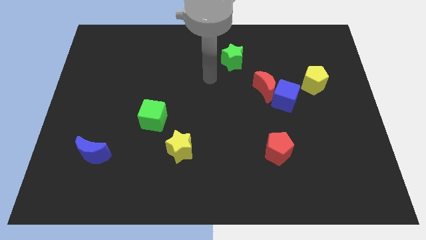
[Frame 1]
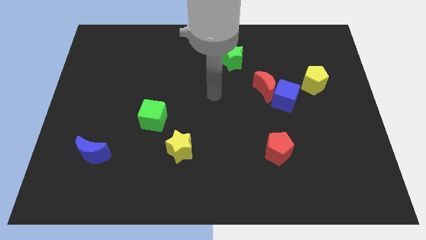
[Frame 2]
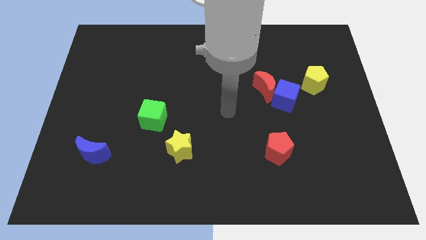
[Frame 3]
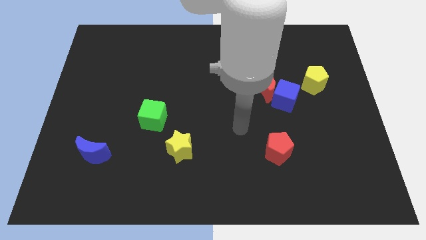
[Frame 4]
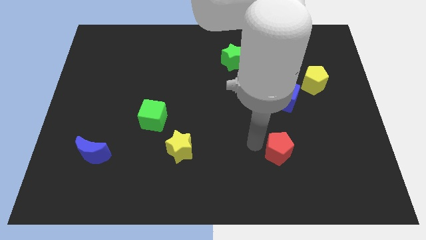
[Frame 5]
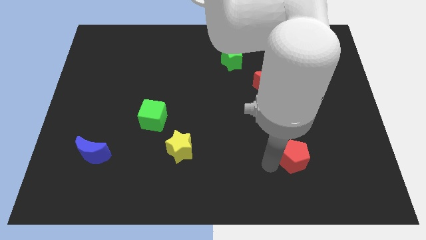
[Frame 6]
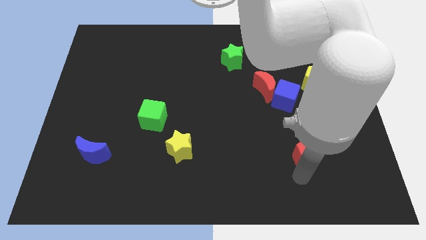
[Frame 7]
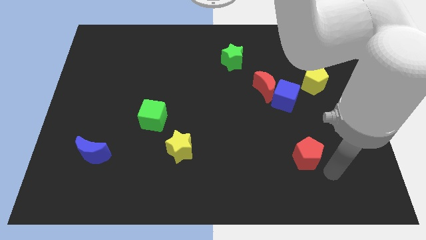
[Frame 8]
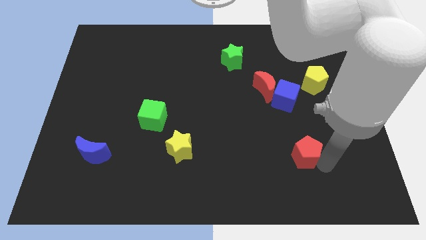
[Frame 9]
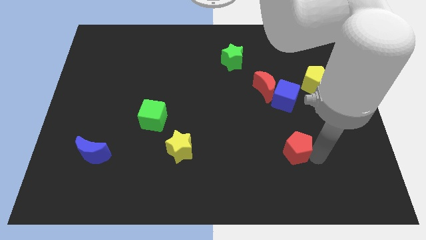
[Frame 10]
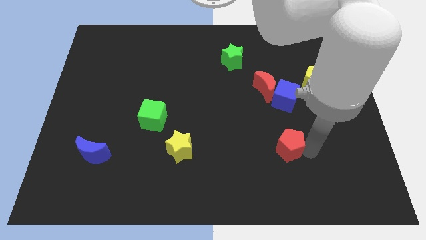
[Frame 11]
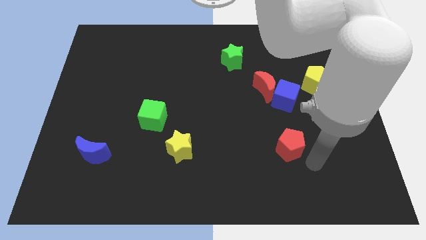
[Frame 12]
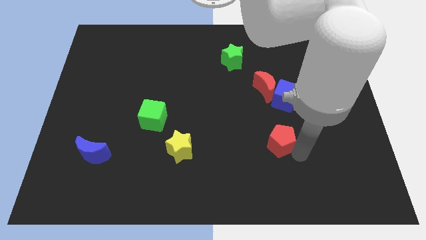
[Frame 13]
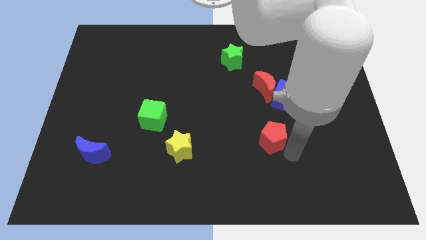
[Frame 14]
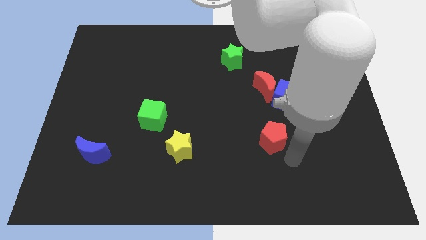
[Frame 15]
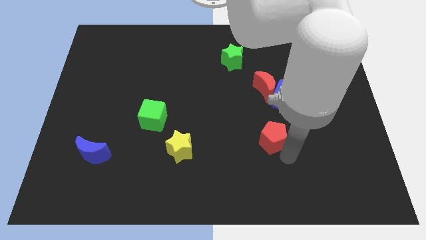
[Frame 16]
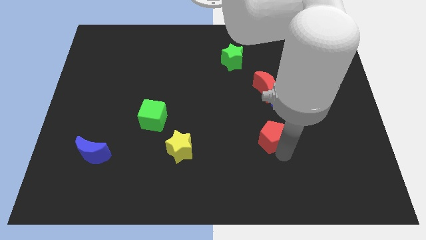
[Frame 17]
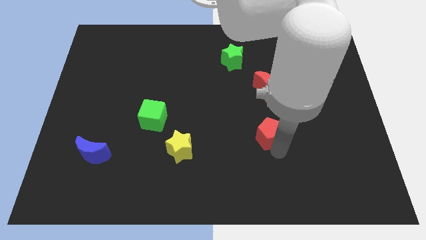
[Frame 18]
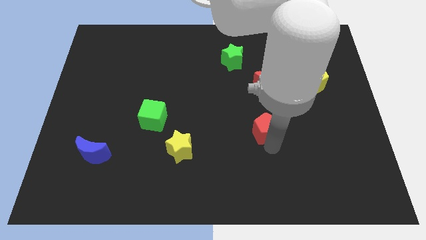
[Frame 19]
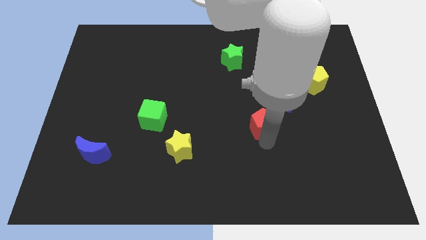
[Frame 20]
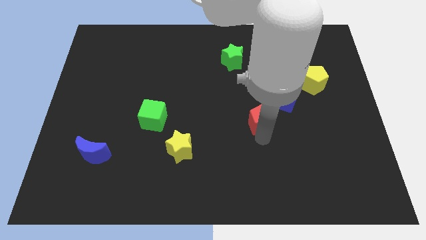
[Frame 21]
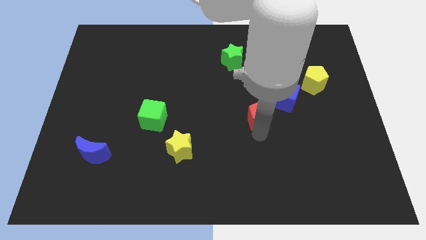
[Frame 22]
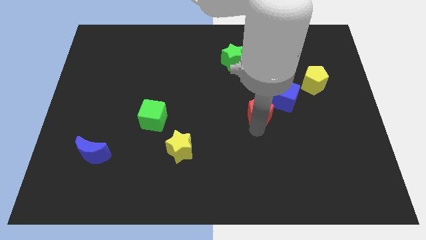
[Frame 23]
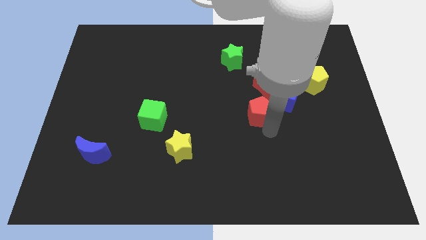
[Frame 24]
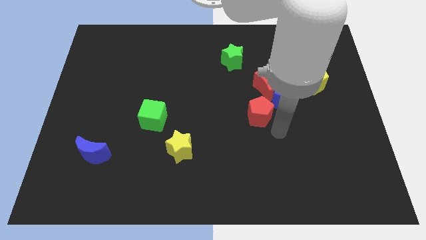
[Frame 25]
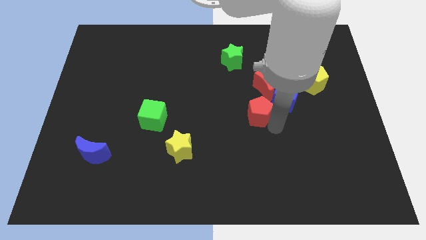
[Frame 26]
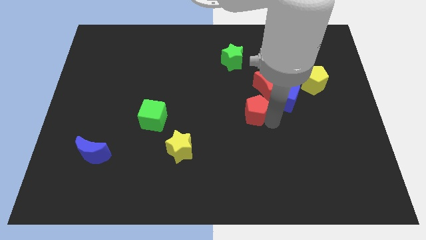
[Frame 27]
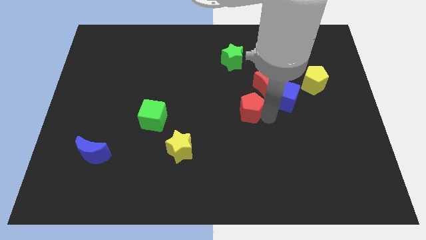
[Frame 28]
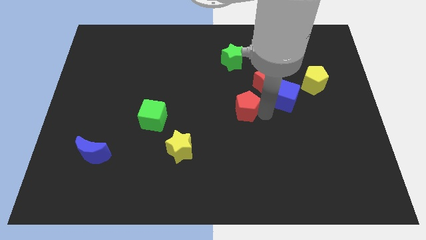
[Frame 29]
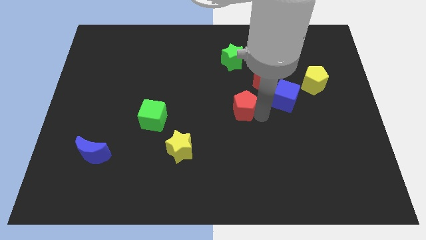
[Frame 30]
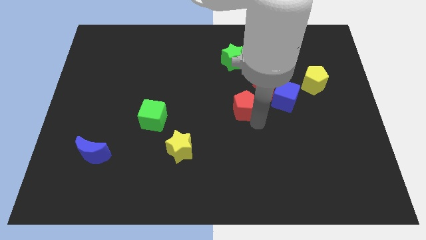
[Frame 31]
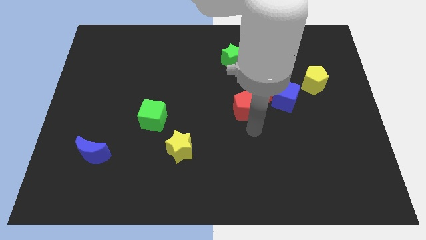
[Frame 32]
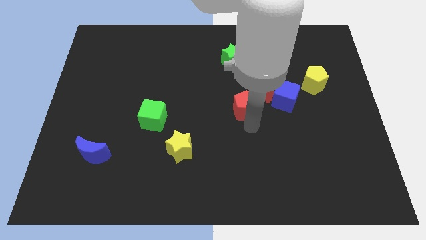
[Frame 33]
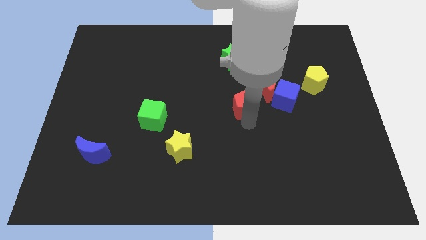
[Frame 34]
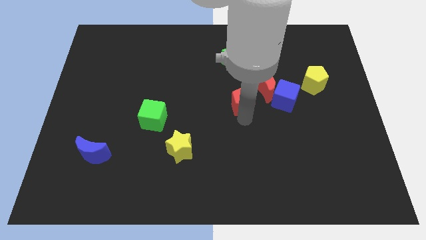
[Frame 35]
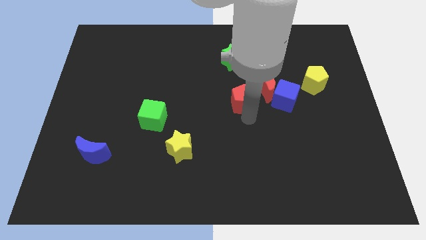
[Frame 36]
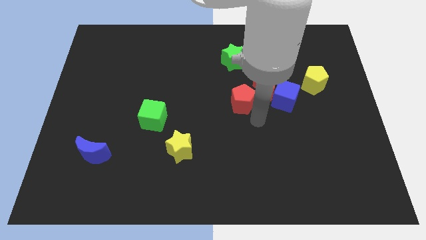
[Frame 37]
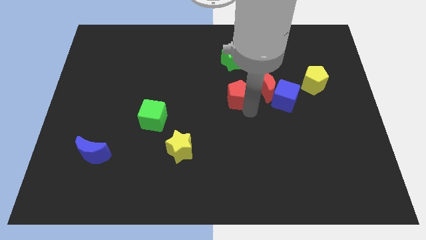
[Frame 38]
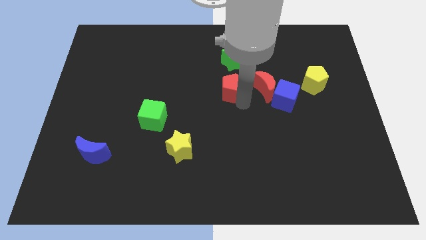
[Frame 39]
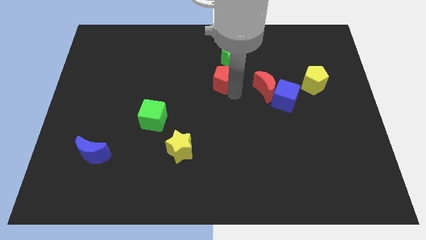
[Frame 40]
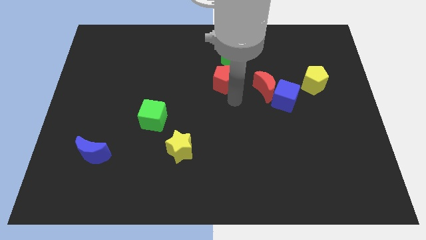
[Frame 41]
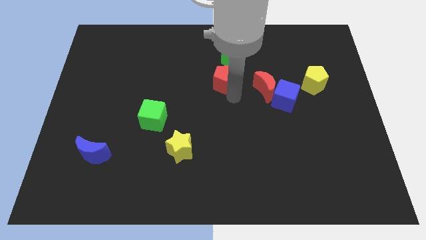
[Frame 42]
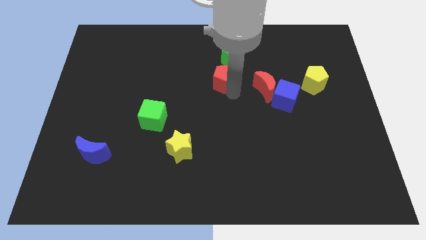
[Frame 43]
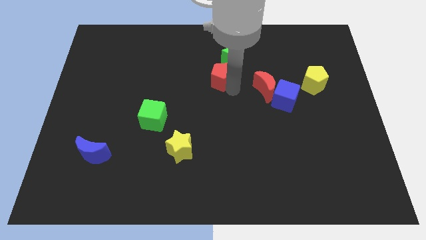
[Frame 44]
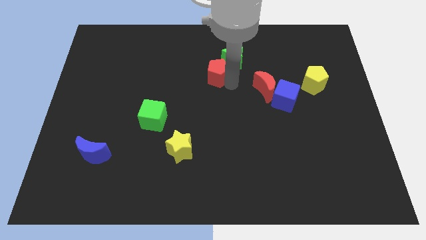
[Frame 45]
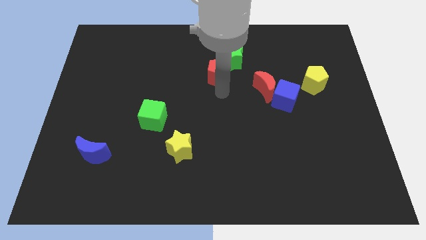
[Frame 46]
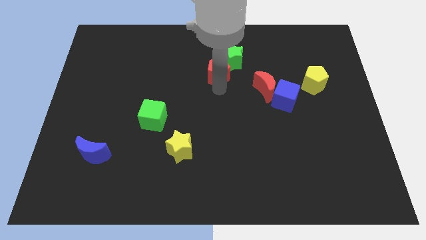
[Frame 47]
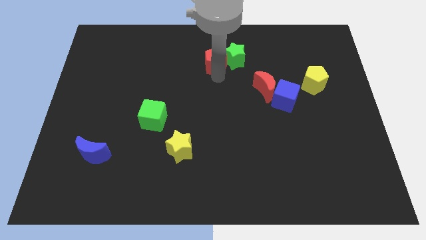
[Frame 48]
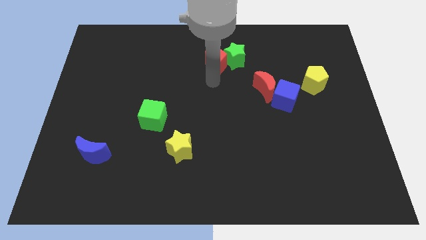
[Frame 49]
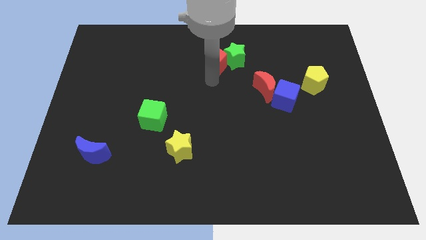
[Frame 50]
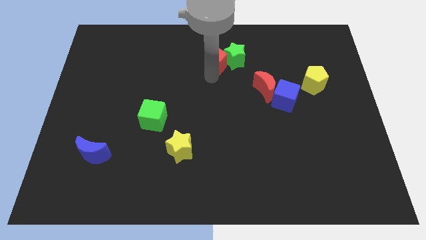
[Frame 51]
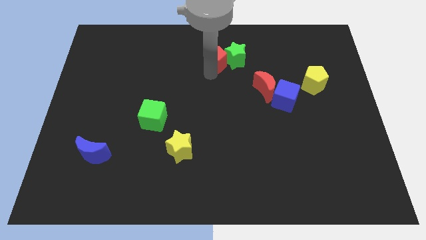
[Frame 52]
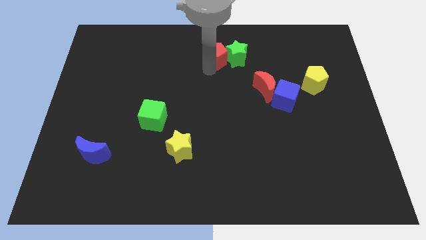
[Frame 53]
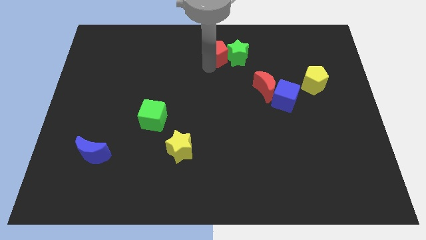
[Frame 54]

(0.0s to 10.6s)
put the red pentagon to the top

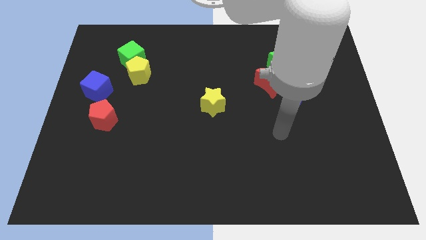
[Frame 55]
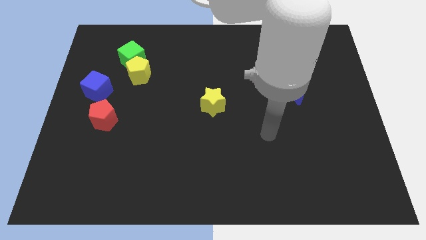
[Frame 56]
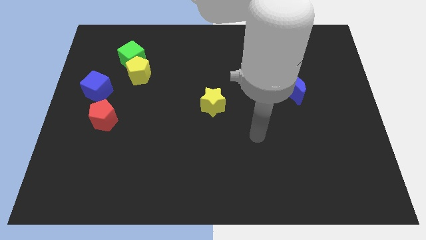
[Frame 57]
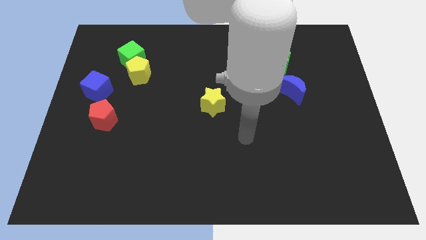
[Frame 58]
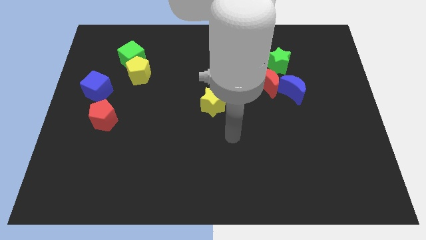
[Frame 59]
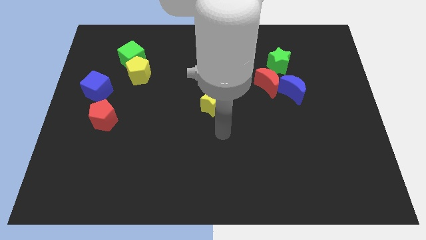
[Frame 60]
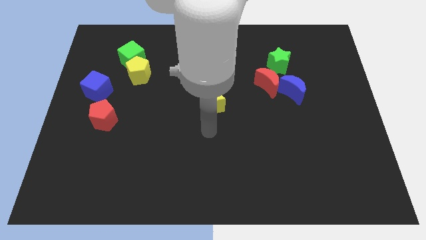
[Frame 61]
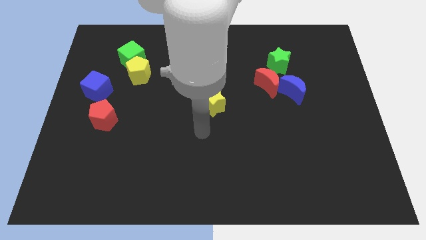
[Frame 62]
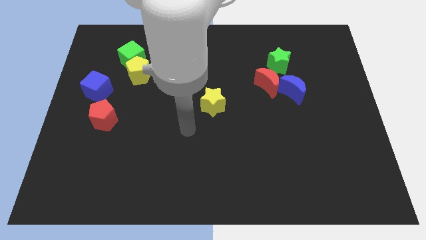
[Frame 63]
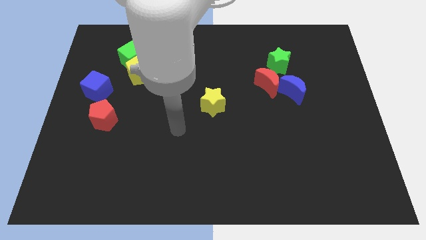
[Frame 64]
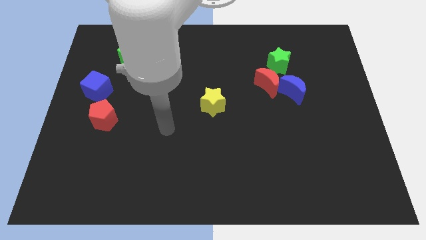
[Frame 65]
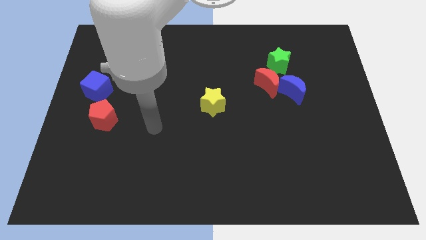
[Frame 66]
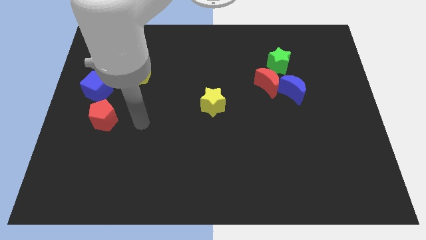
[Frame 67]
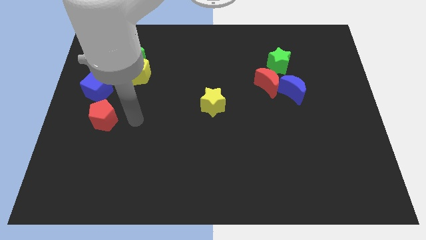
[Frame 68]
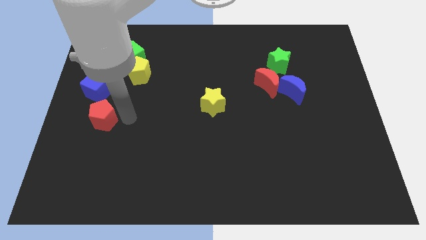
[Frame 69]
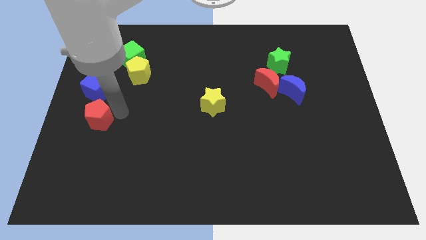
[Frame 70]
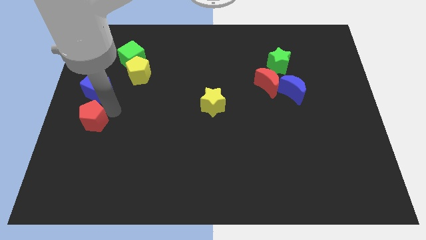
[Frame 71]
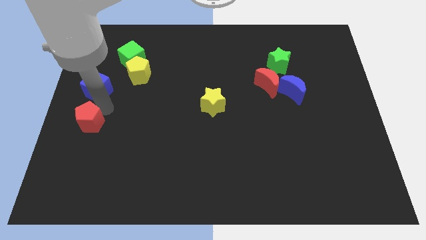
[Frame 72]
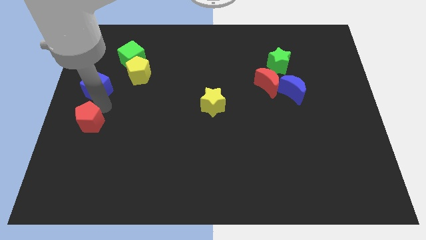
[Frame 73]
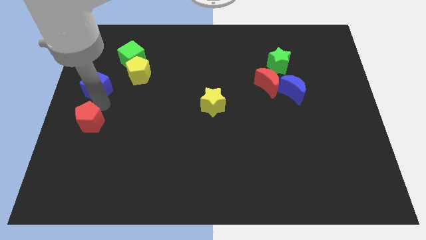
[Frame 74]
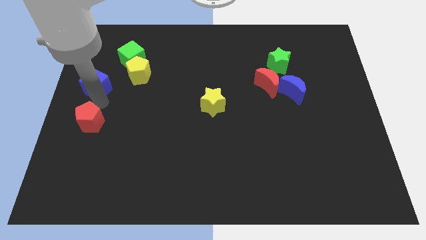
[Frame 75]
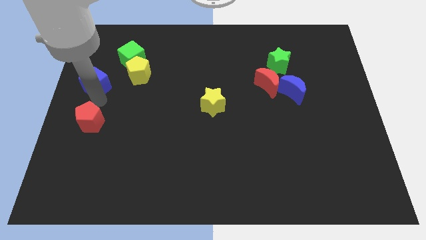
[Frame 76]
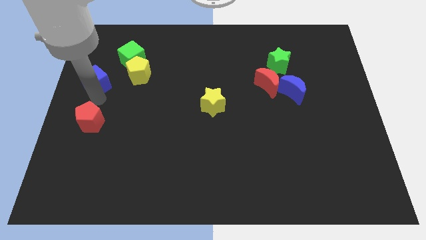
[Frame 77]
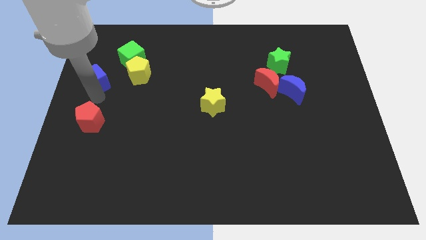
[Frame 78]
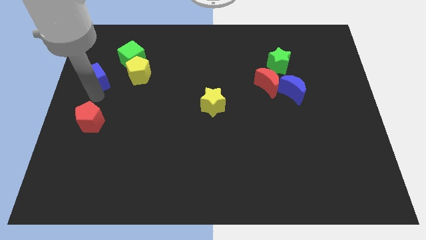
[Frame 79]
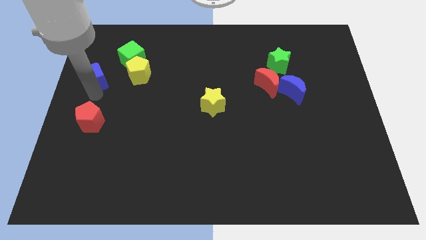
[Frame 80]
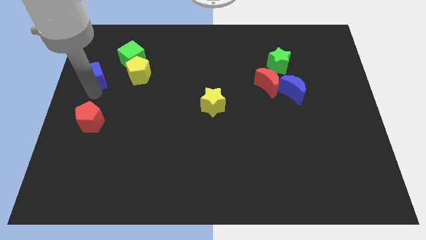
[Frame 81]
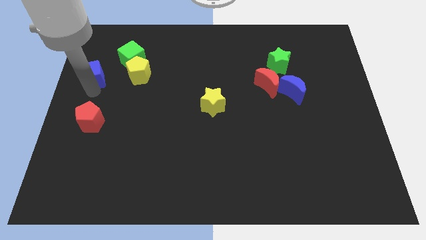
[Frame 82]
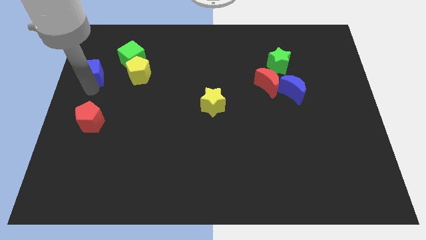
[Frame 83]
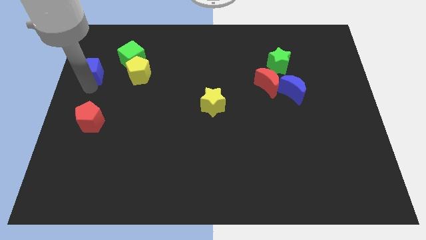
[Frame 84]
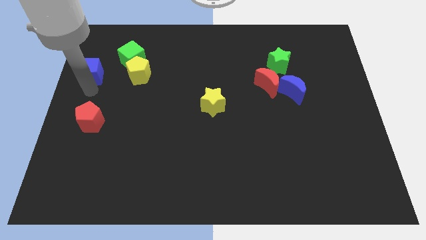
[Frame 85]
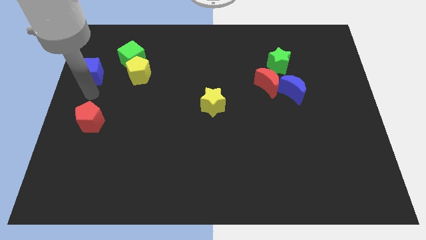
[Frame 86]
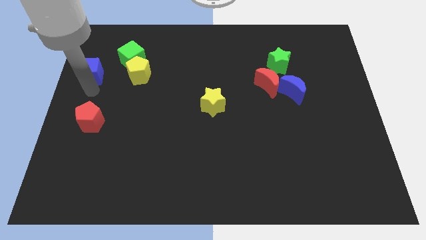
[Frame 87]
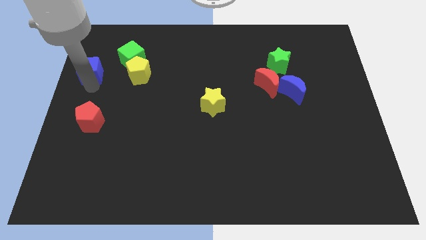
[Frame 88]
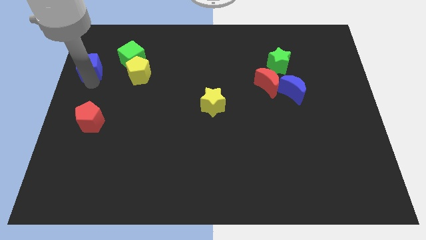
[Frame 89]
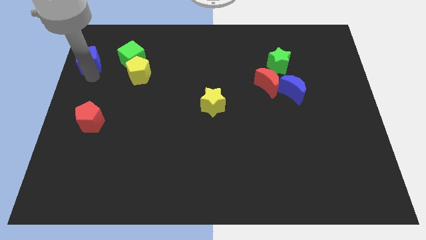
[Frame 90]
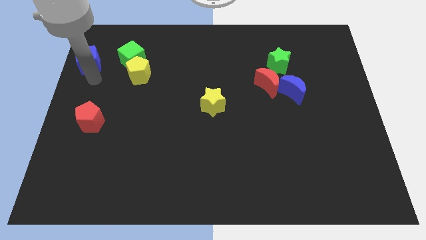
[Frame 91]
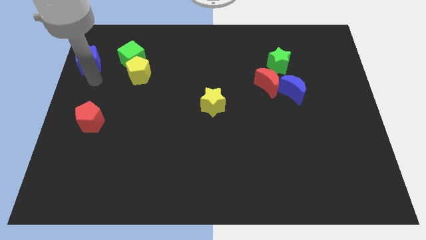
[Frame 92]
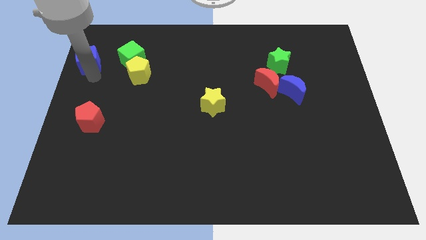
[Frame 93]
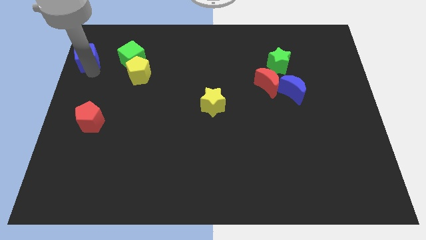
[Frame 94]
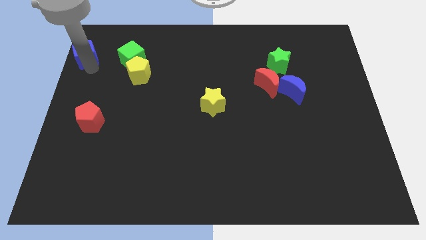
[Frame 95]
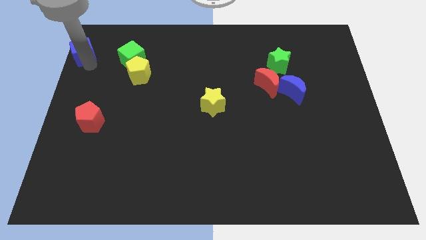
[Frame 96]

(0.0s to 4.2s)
push the blue cube to the upper left corner
